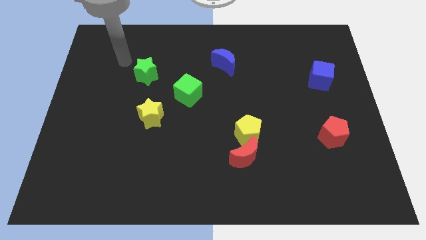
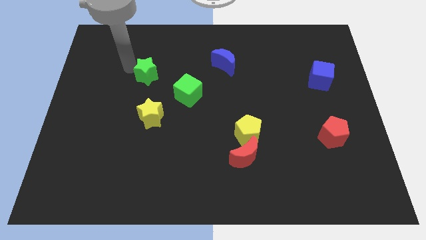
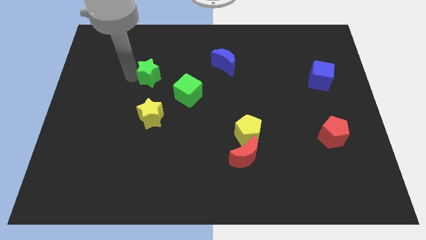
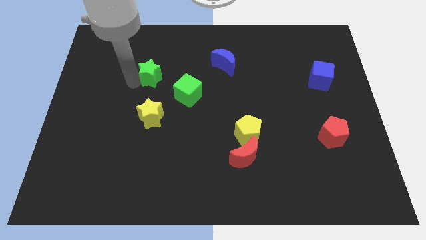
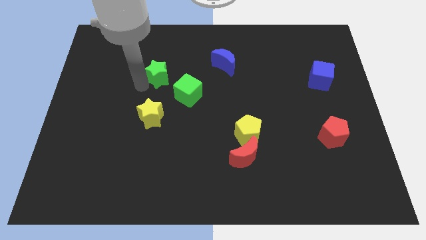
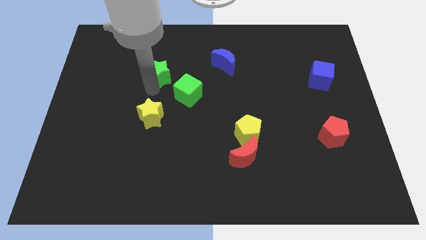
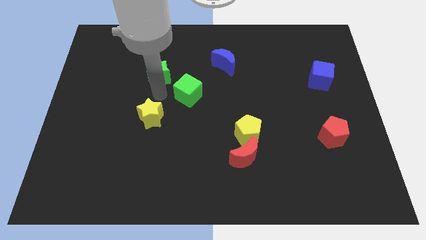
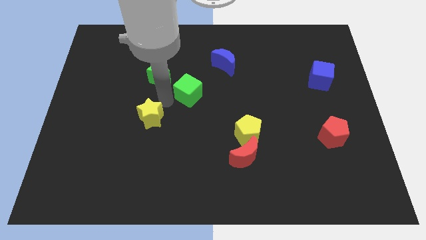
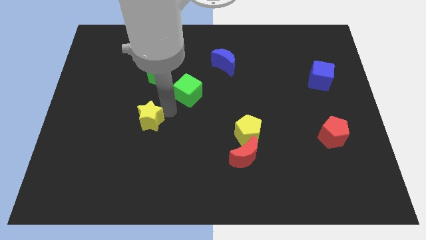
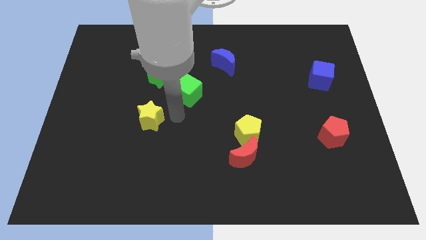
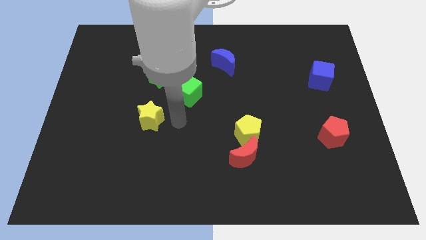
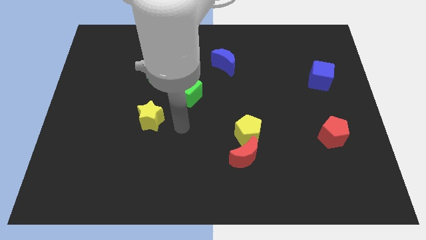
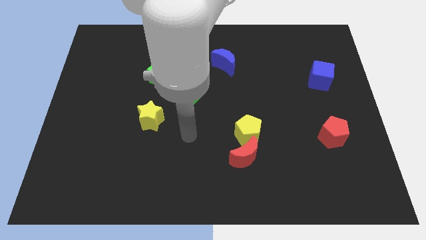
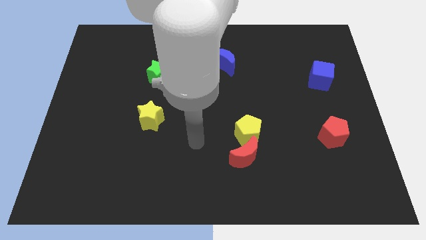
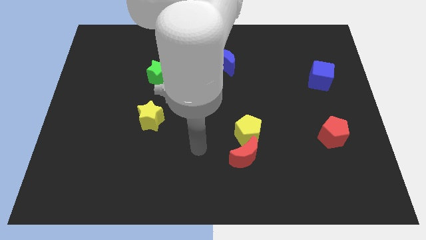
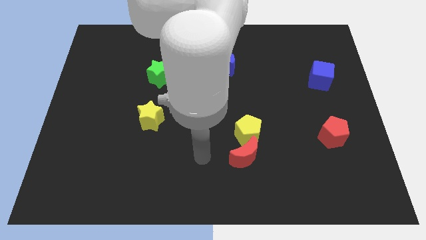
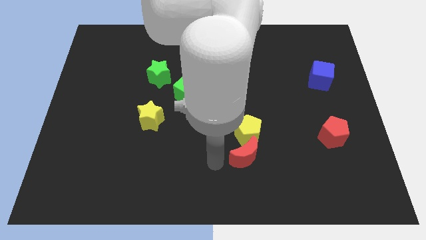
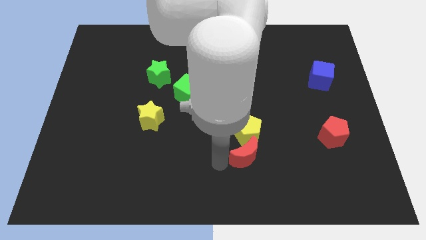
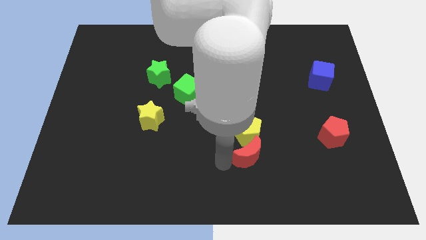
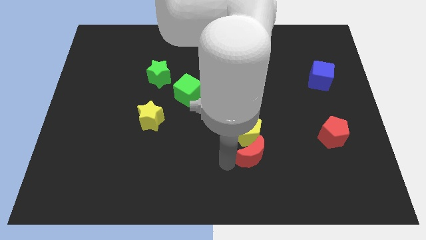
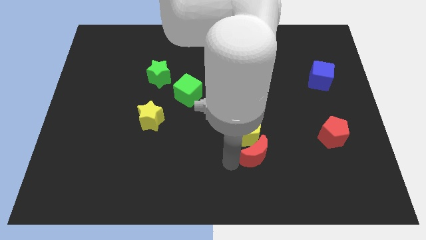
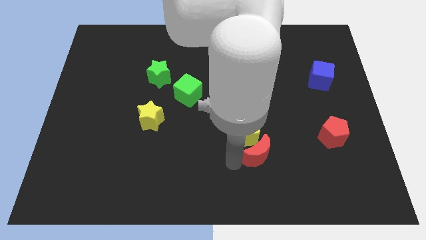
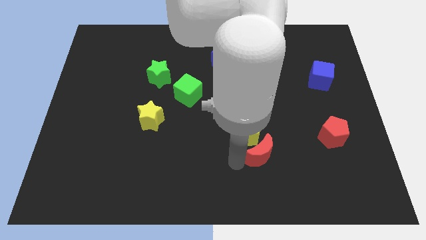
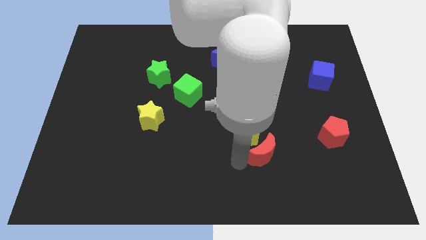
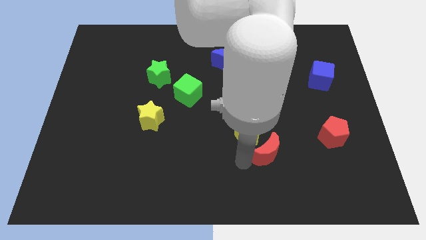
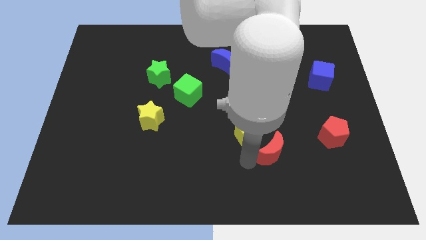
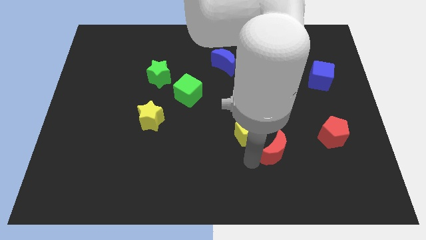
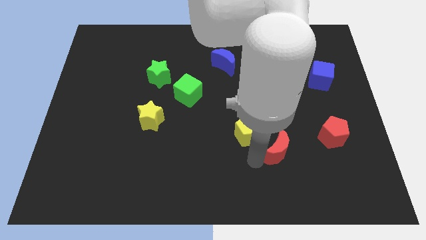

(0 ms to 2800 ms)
slightly push the red moon to the right

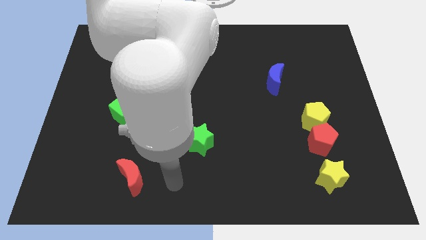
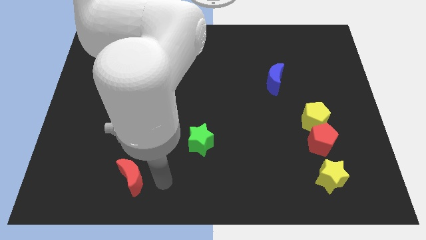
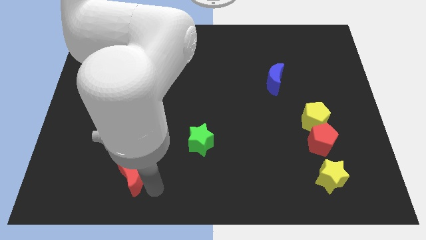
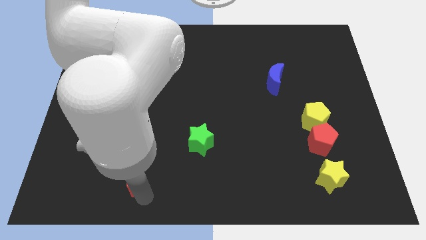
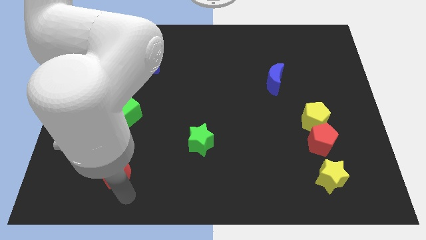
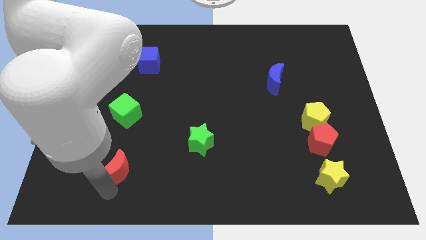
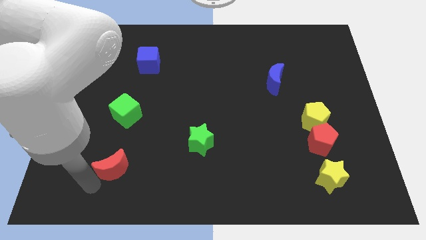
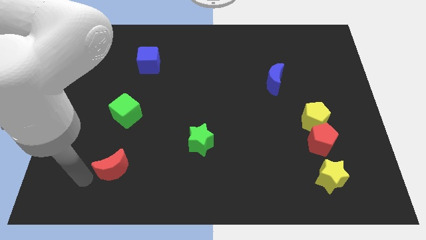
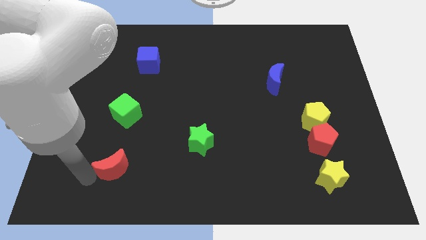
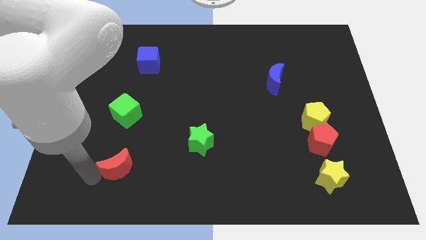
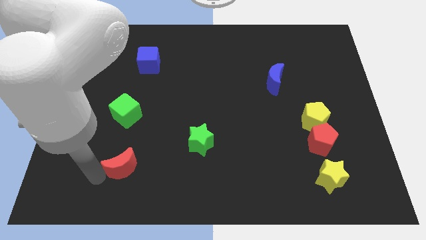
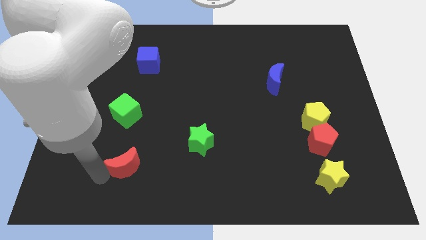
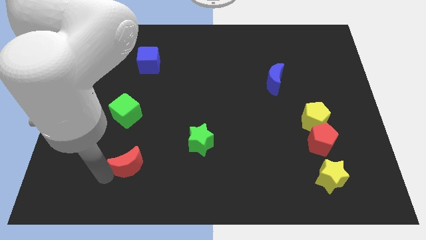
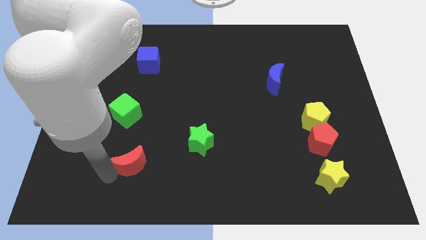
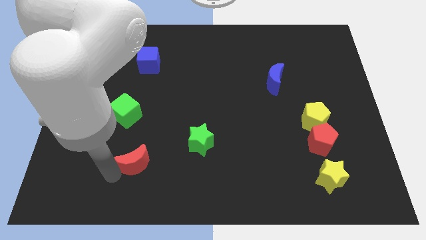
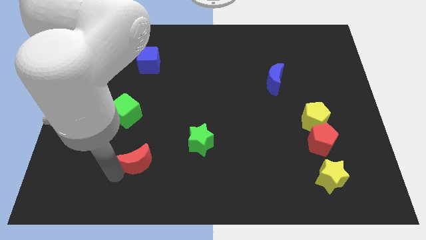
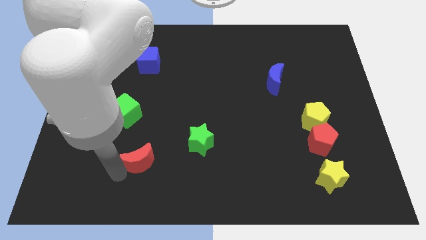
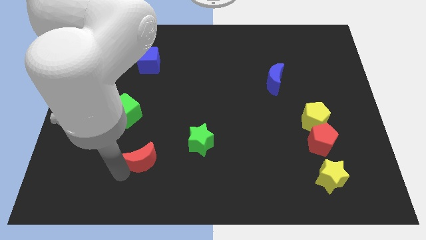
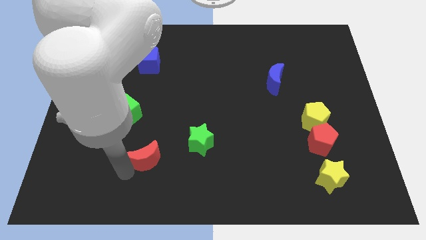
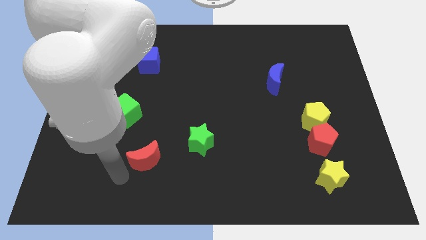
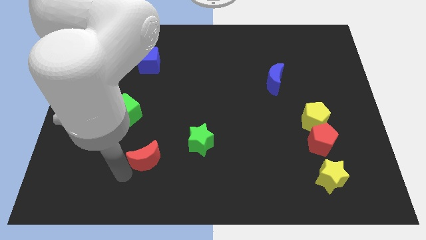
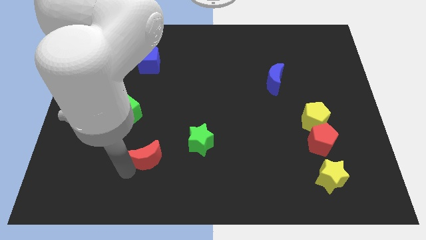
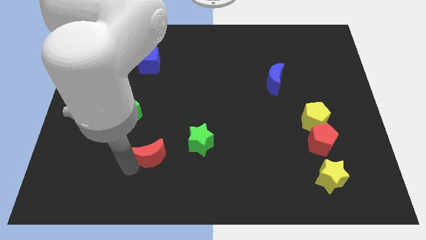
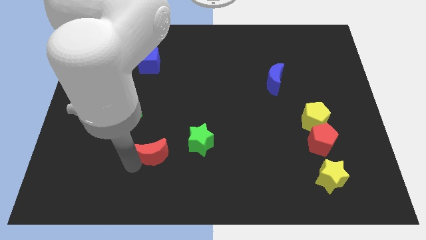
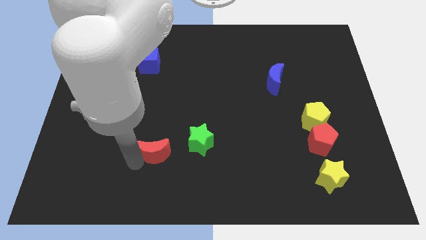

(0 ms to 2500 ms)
slide the red moon up and then to the right somewhat

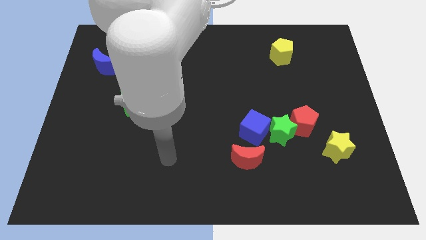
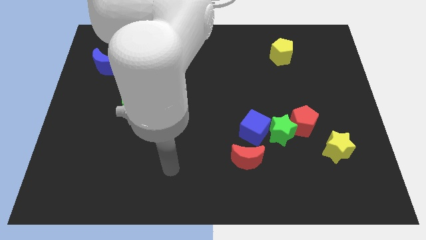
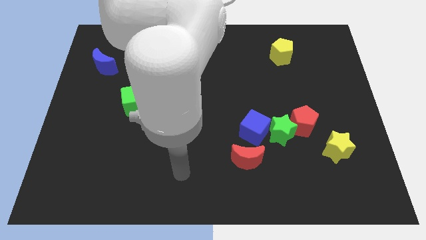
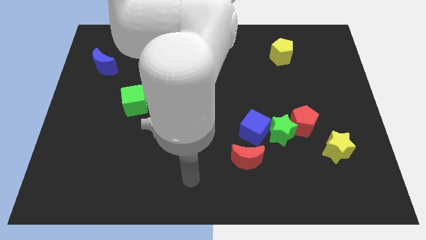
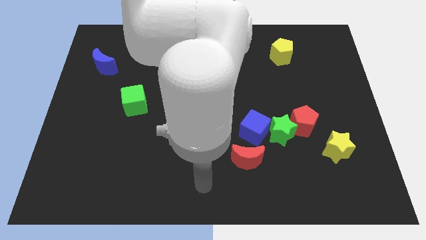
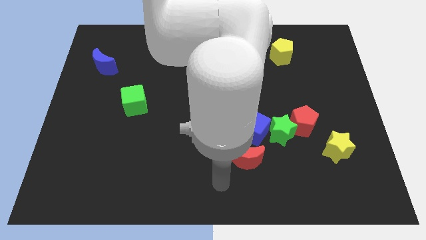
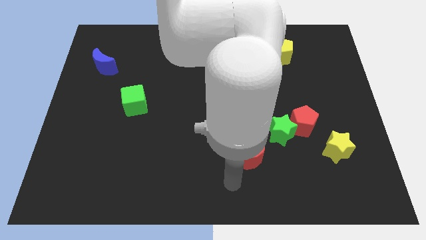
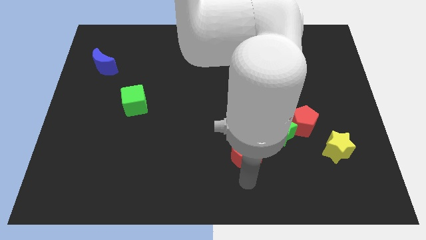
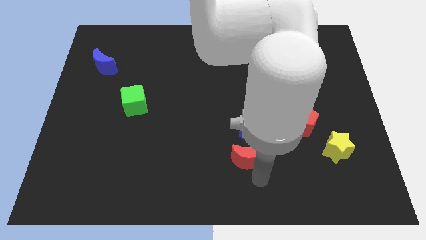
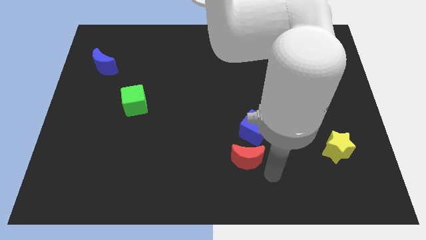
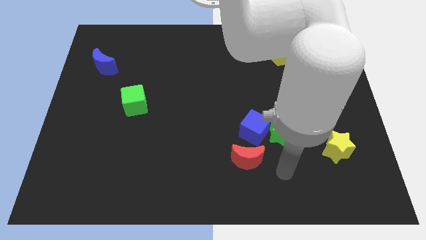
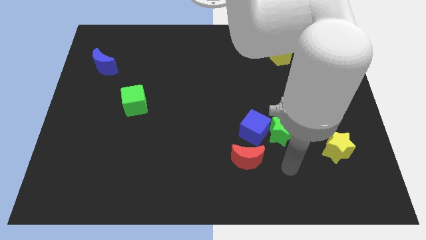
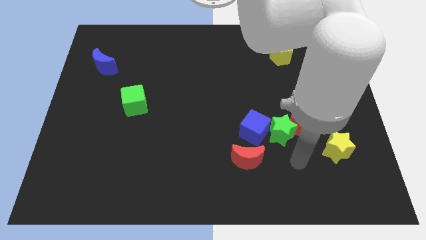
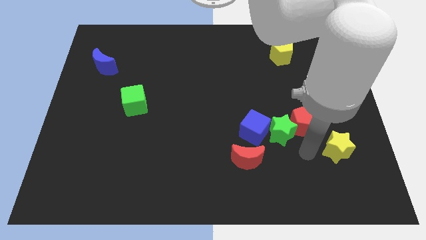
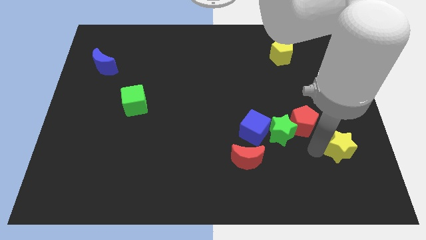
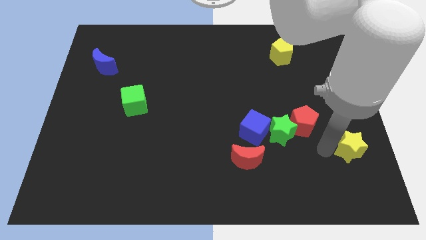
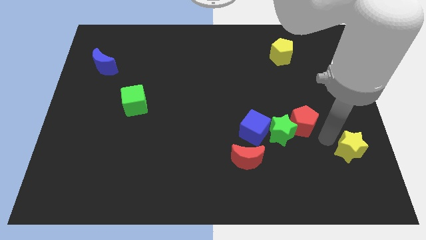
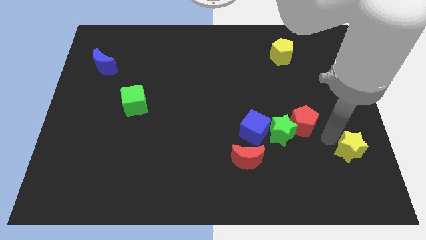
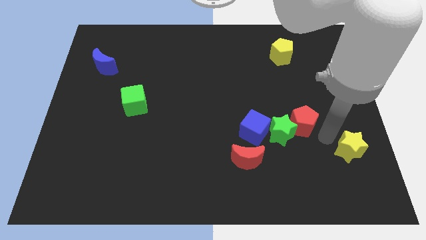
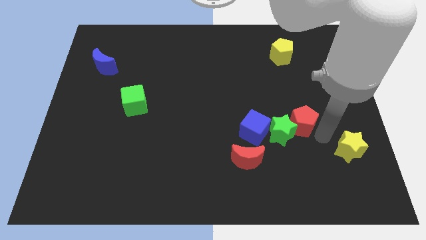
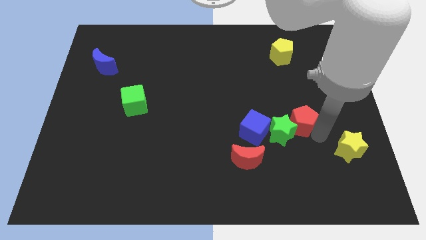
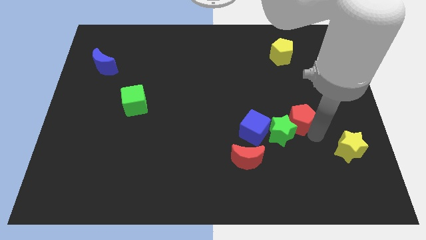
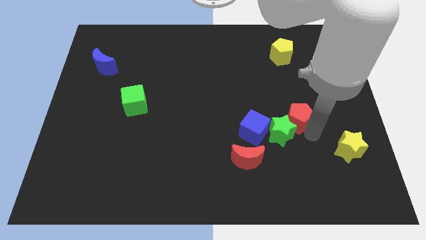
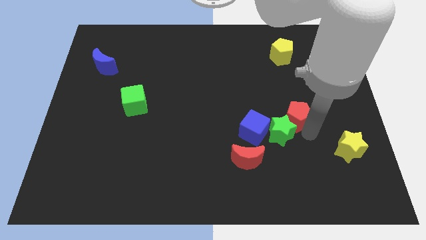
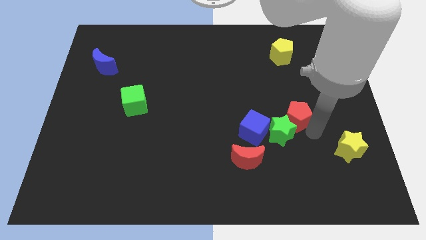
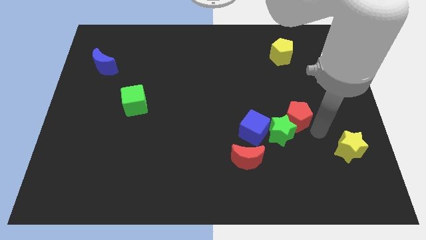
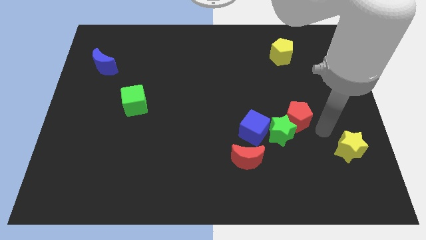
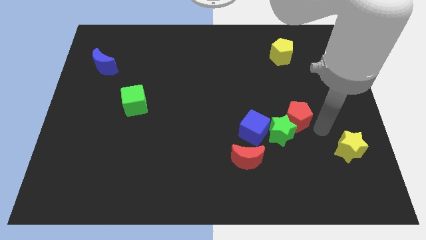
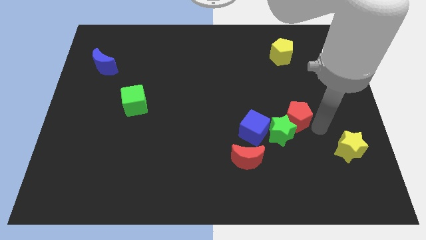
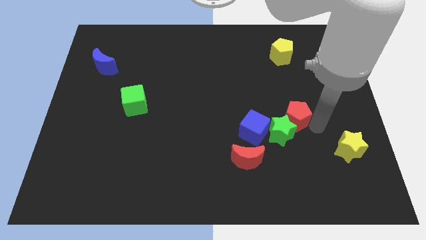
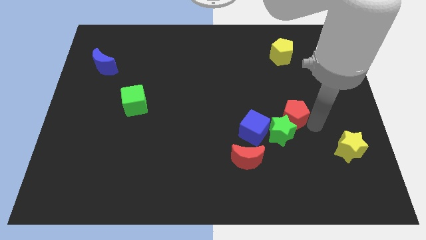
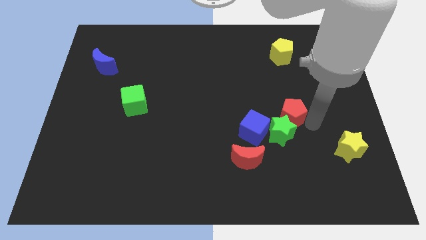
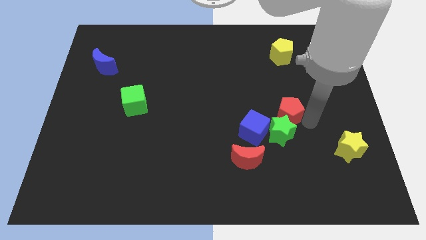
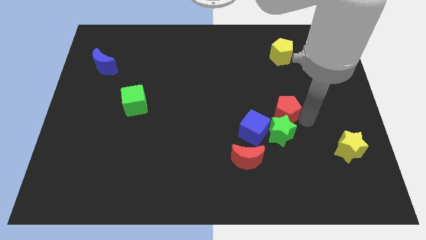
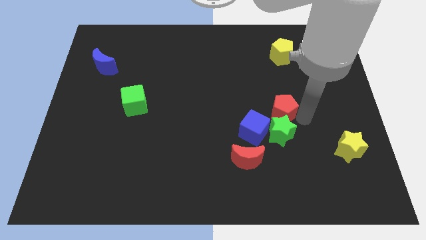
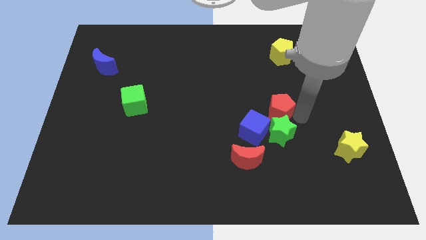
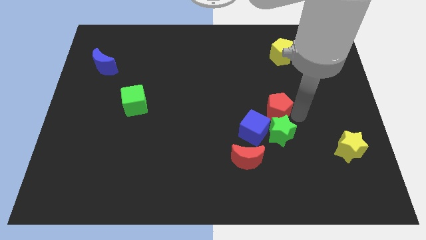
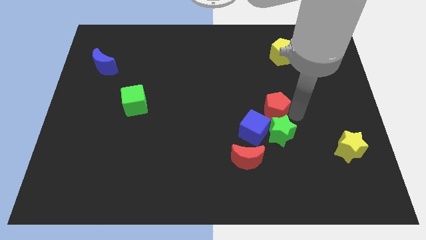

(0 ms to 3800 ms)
slightly push the red pentagon diagonally upwards and left
